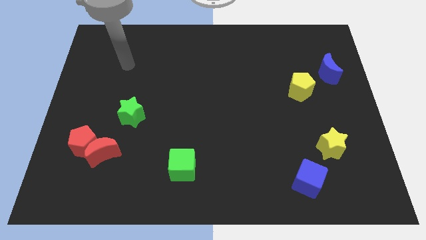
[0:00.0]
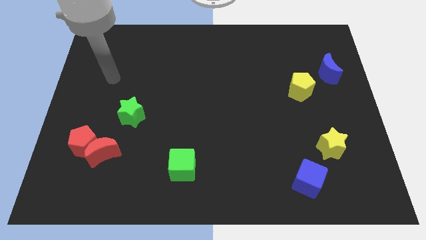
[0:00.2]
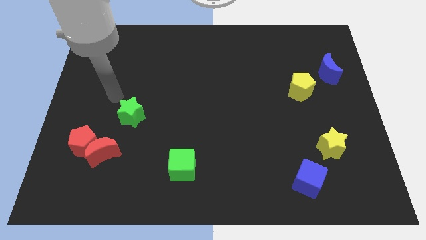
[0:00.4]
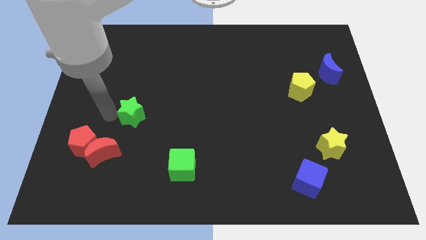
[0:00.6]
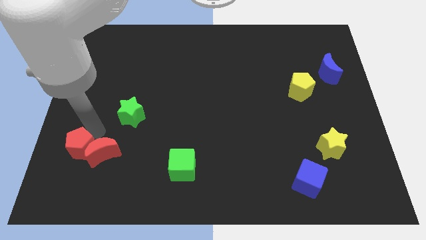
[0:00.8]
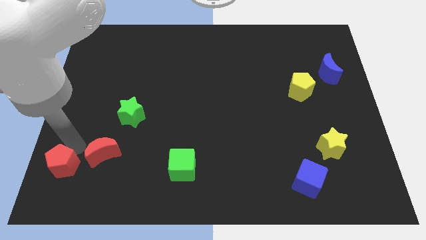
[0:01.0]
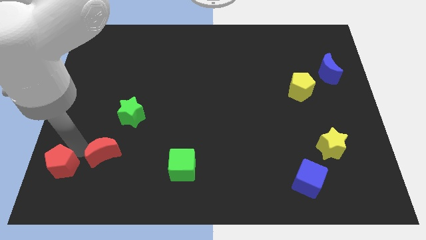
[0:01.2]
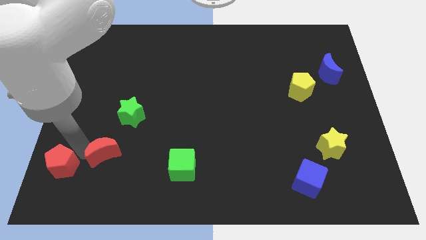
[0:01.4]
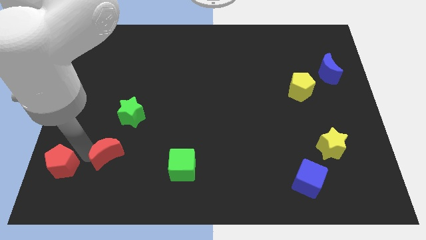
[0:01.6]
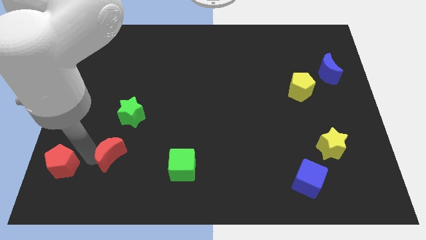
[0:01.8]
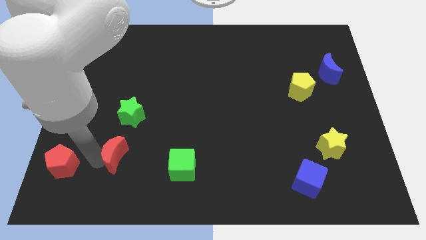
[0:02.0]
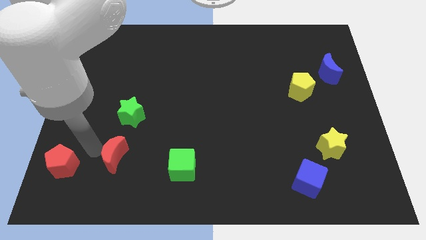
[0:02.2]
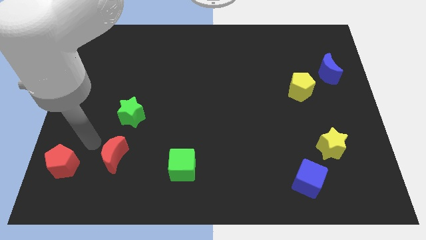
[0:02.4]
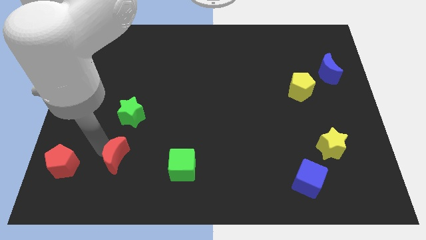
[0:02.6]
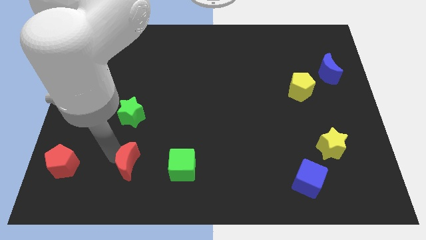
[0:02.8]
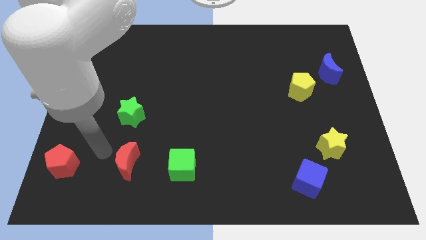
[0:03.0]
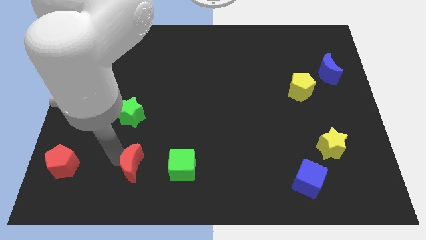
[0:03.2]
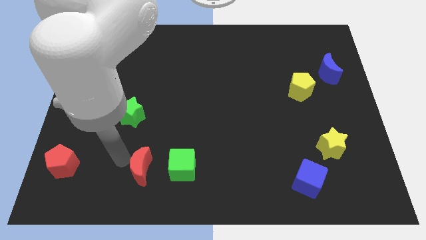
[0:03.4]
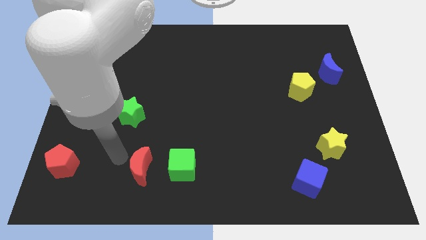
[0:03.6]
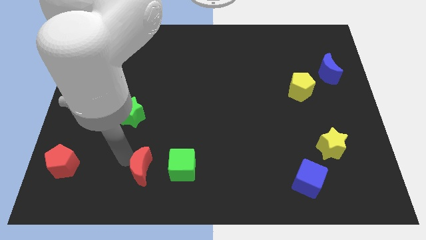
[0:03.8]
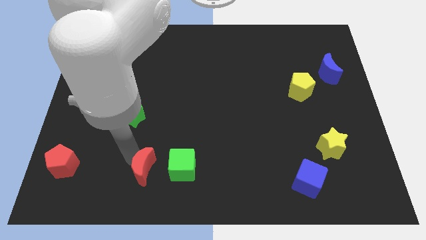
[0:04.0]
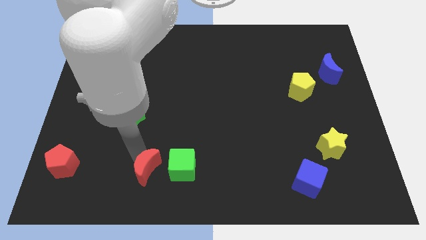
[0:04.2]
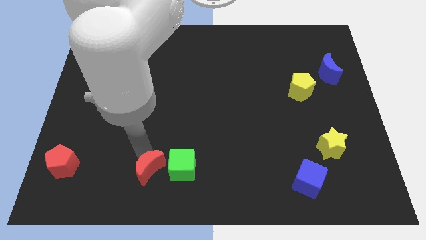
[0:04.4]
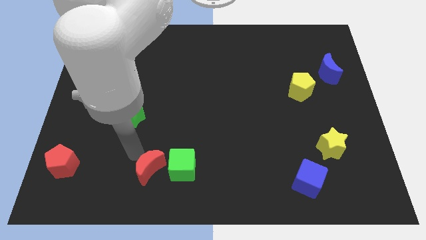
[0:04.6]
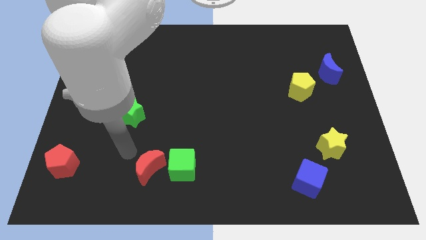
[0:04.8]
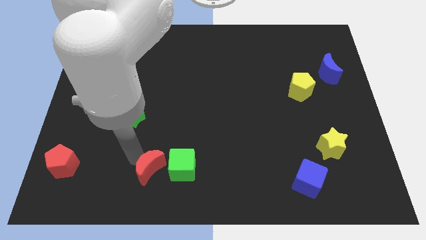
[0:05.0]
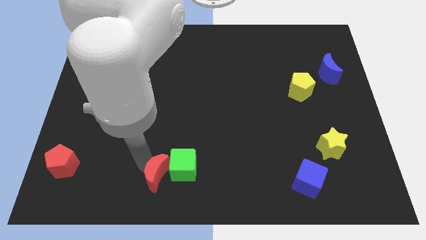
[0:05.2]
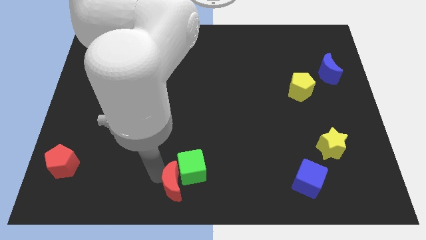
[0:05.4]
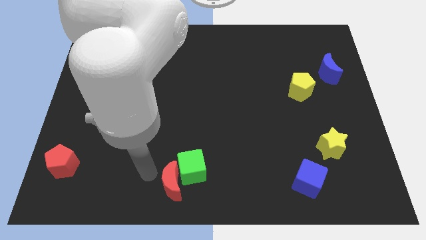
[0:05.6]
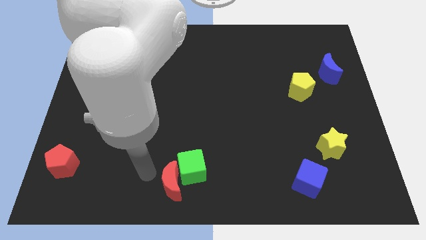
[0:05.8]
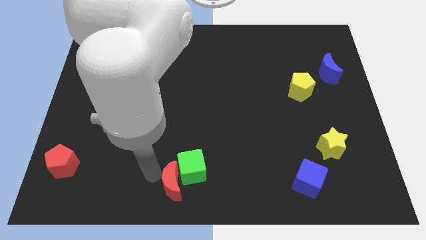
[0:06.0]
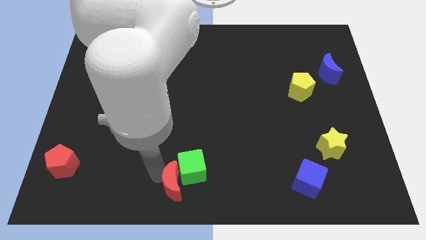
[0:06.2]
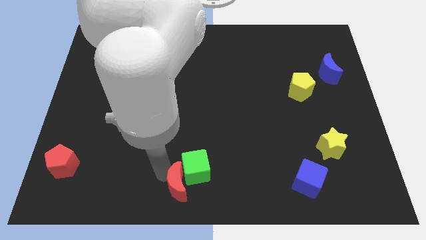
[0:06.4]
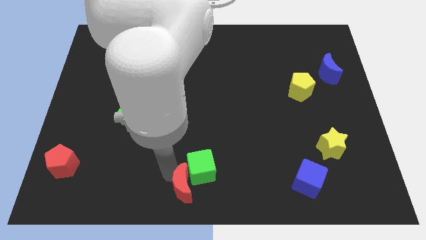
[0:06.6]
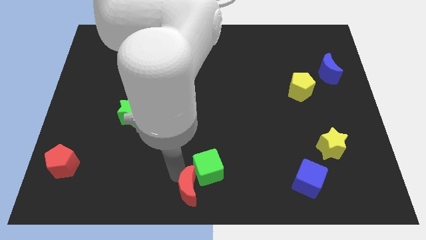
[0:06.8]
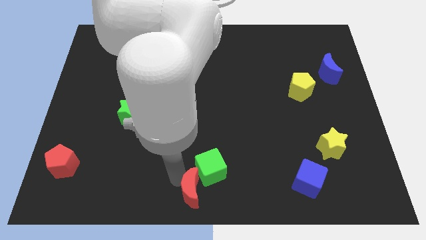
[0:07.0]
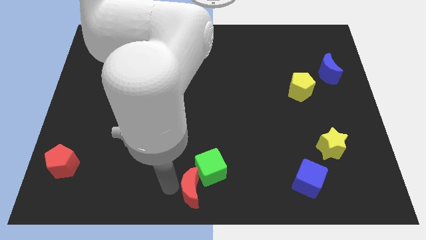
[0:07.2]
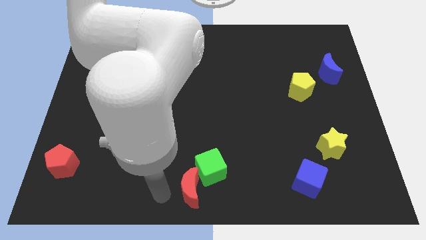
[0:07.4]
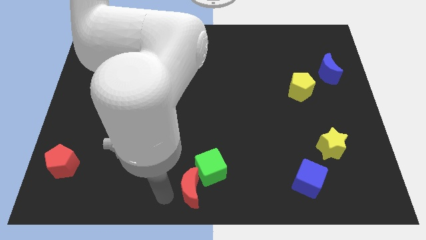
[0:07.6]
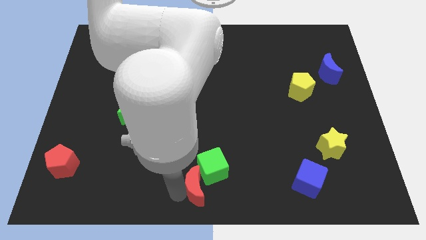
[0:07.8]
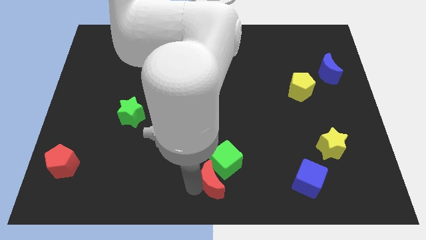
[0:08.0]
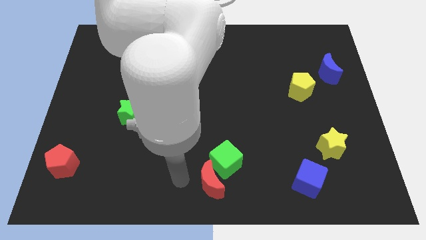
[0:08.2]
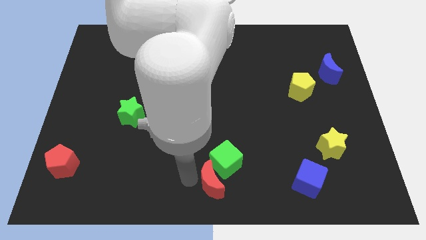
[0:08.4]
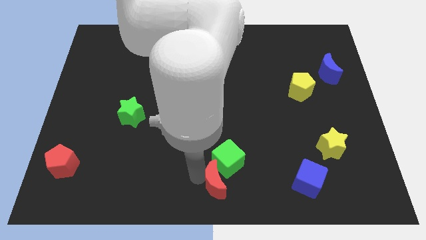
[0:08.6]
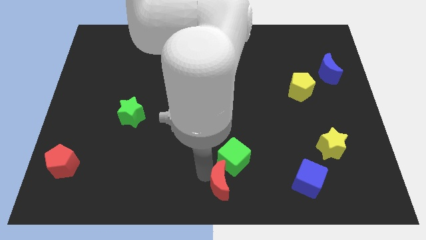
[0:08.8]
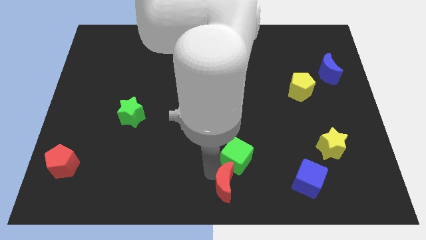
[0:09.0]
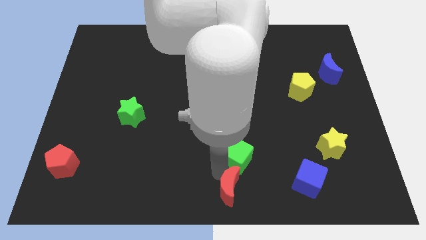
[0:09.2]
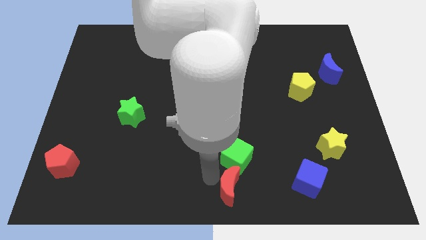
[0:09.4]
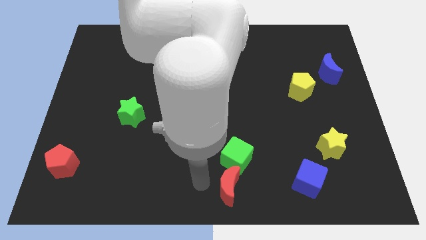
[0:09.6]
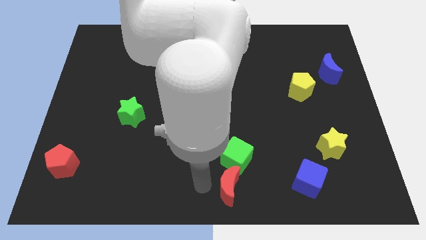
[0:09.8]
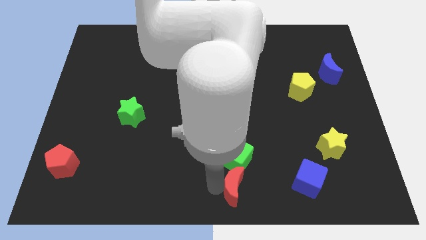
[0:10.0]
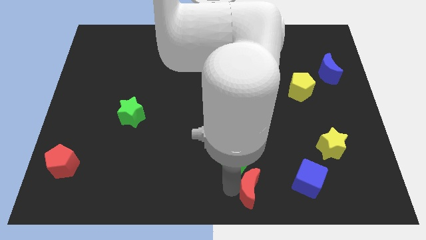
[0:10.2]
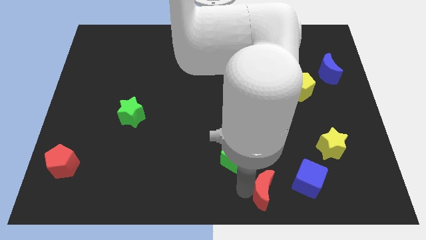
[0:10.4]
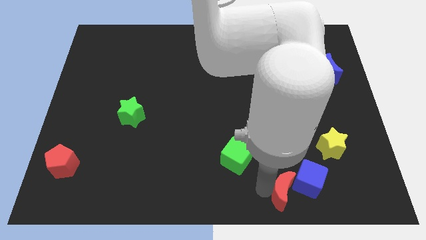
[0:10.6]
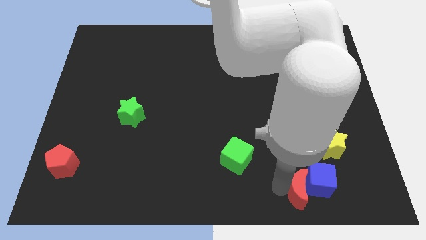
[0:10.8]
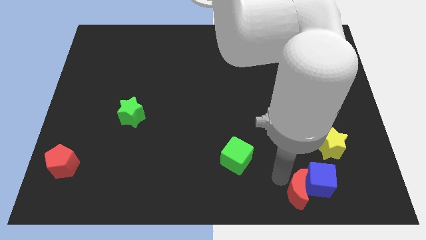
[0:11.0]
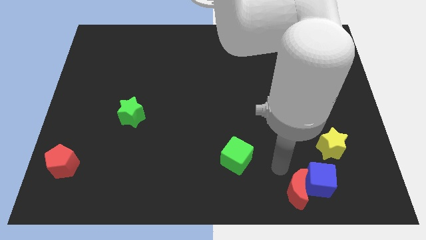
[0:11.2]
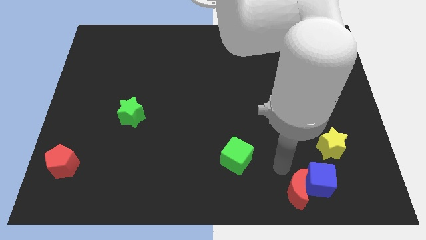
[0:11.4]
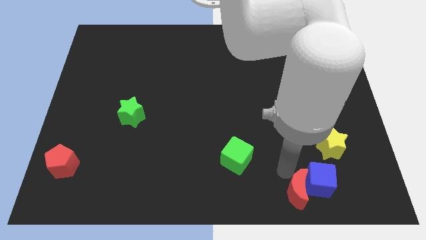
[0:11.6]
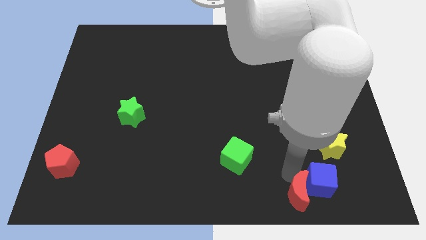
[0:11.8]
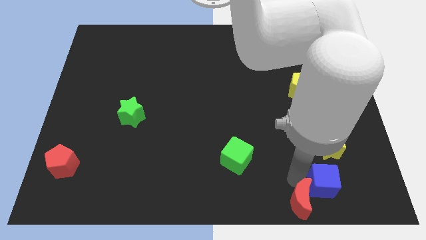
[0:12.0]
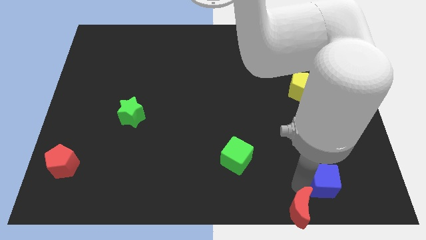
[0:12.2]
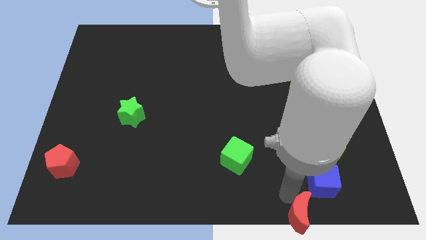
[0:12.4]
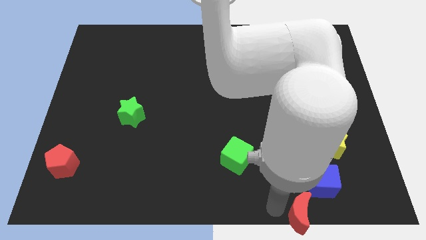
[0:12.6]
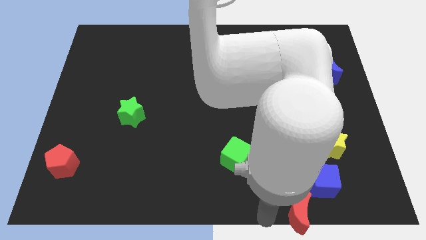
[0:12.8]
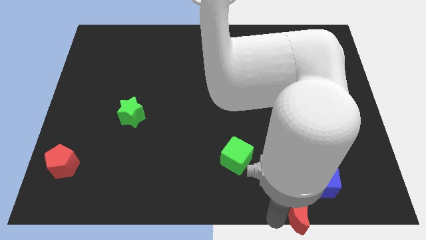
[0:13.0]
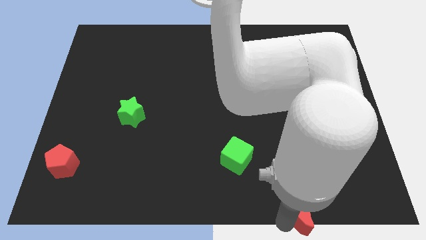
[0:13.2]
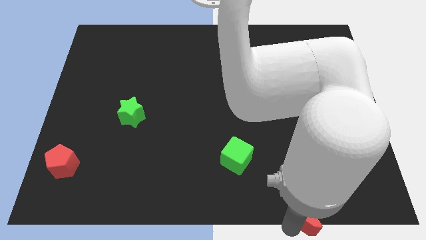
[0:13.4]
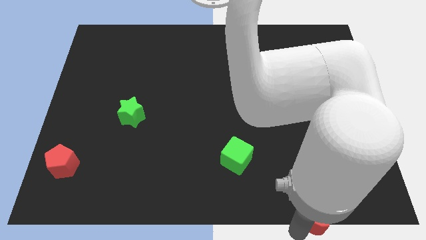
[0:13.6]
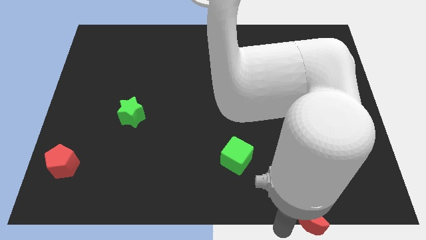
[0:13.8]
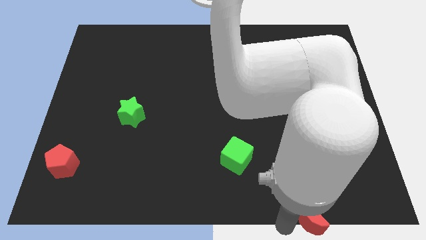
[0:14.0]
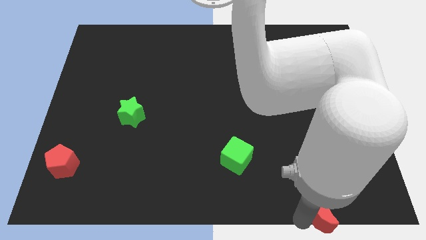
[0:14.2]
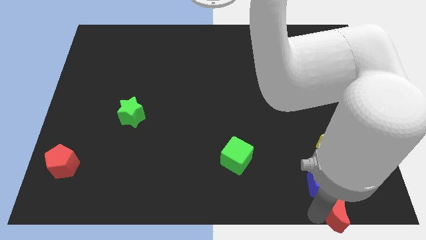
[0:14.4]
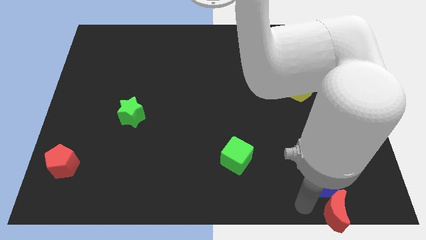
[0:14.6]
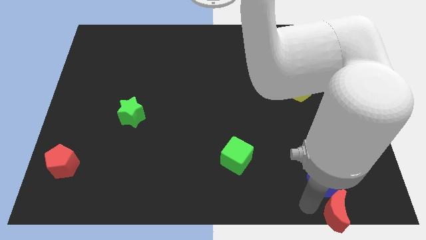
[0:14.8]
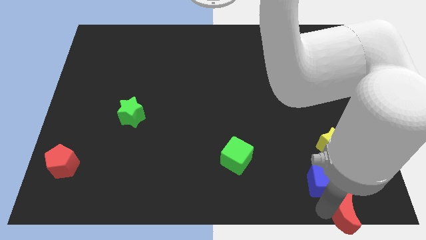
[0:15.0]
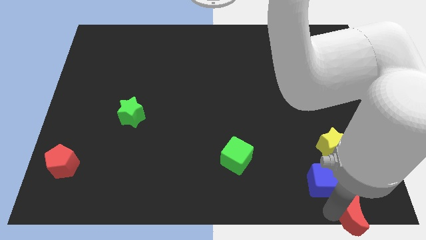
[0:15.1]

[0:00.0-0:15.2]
slide the red moon to the bottom right corner
